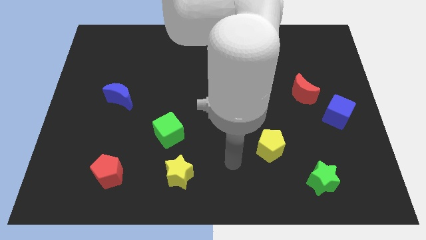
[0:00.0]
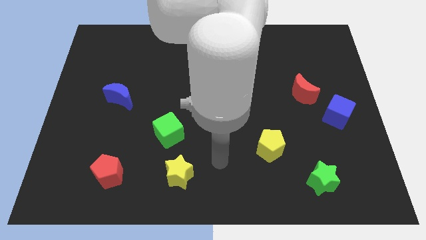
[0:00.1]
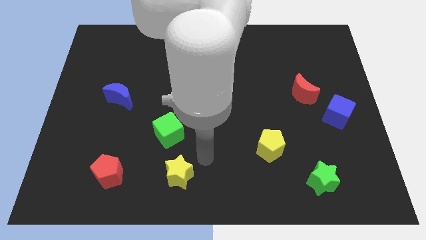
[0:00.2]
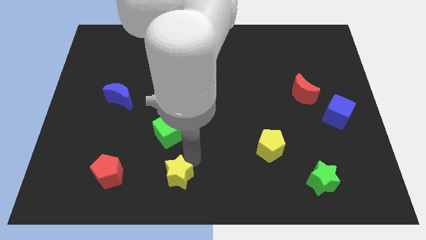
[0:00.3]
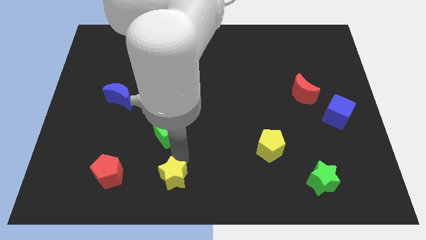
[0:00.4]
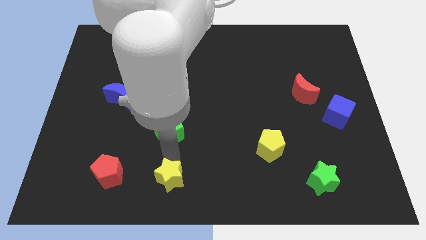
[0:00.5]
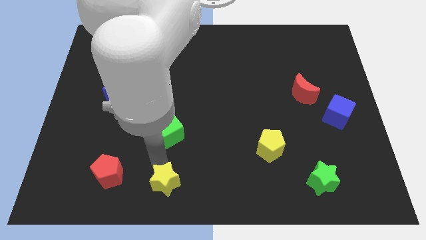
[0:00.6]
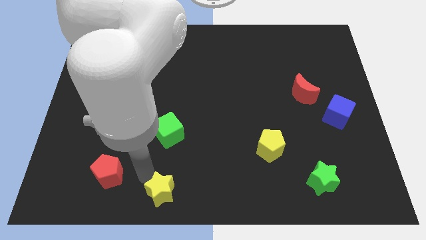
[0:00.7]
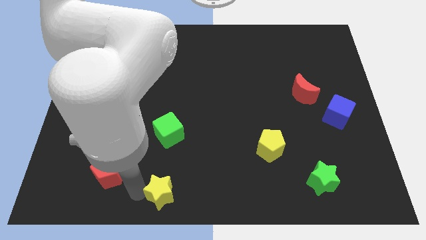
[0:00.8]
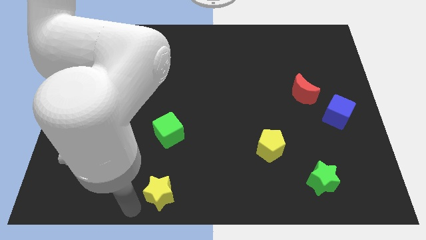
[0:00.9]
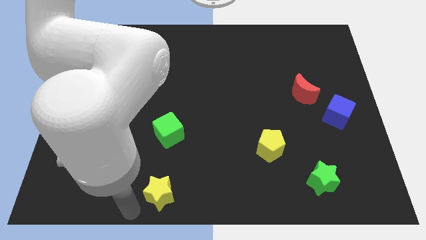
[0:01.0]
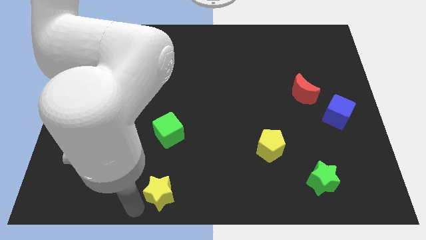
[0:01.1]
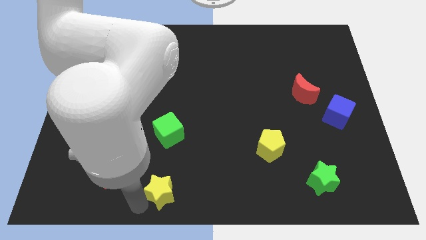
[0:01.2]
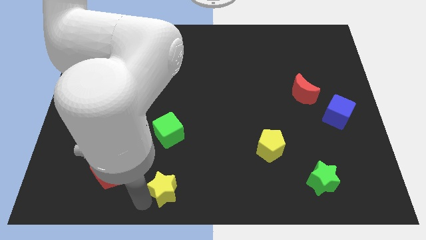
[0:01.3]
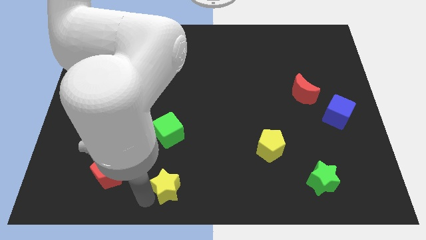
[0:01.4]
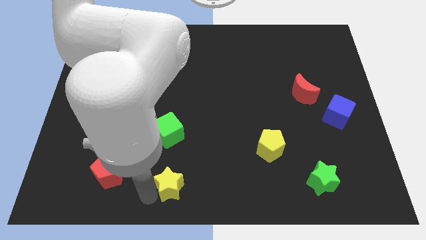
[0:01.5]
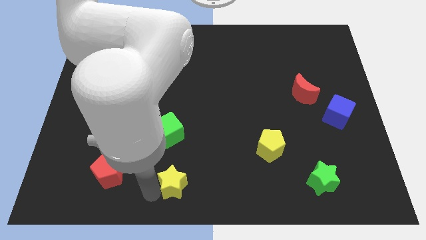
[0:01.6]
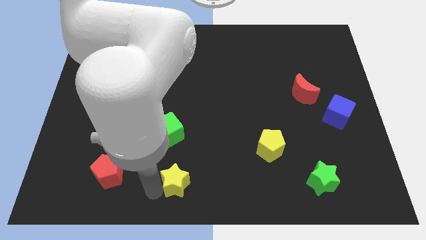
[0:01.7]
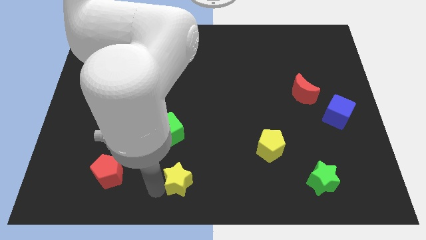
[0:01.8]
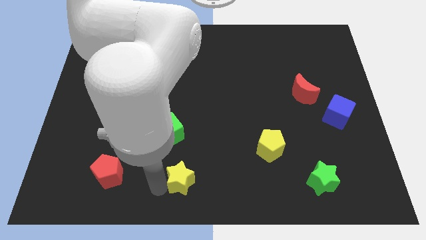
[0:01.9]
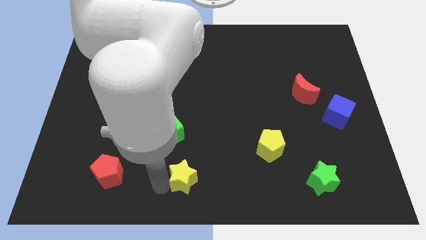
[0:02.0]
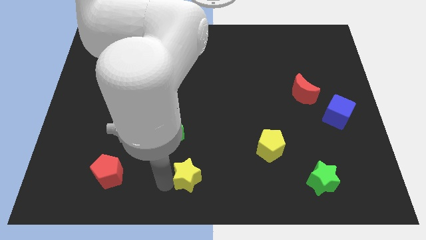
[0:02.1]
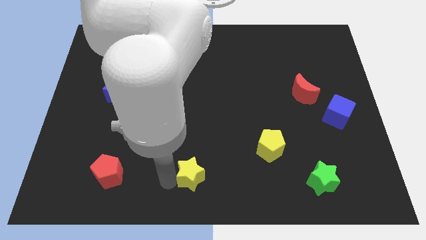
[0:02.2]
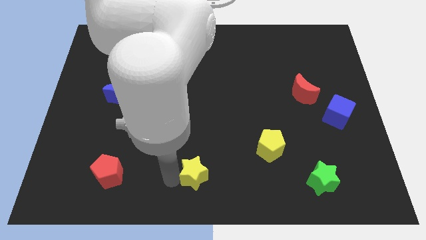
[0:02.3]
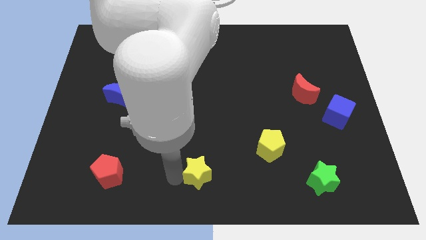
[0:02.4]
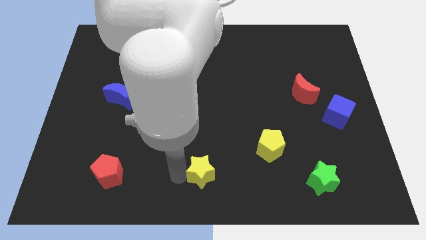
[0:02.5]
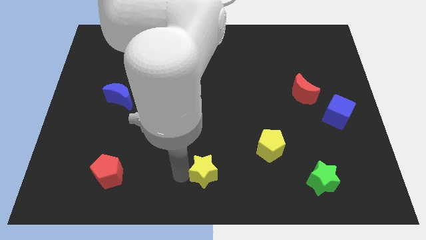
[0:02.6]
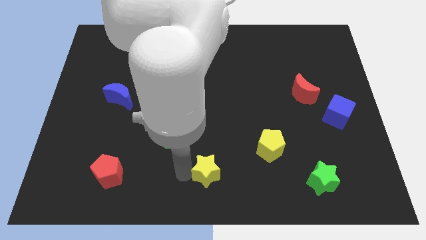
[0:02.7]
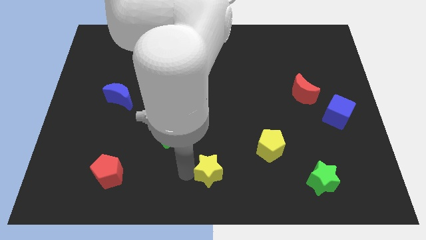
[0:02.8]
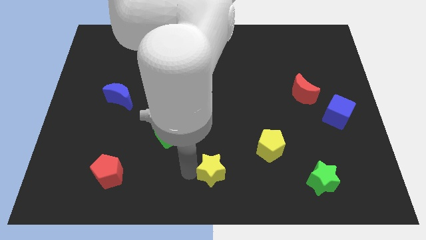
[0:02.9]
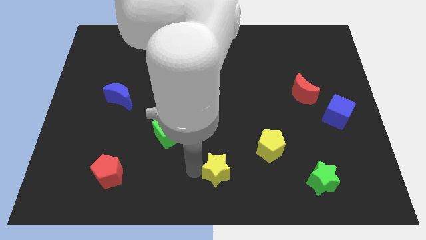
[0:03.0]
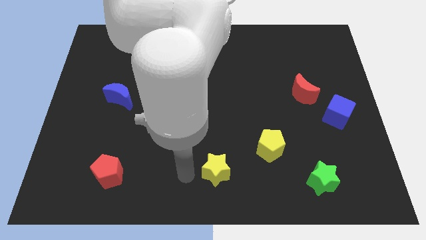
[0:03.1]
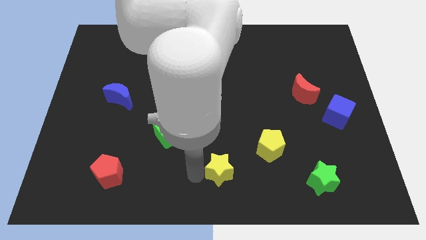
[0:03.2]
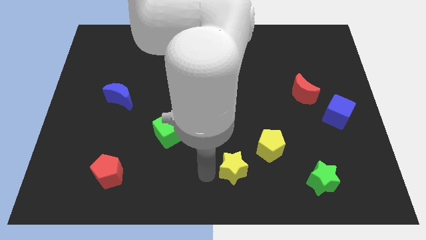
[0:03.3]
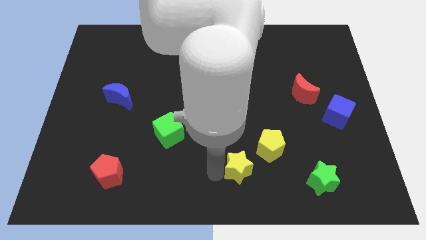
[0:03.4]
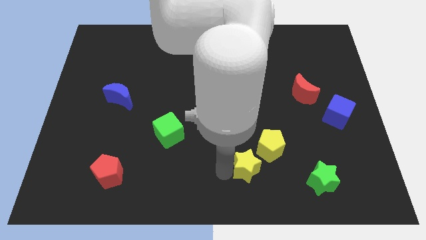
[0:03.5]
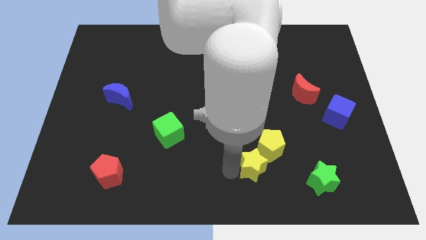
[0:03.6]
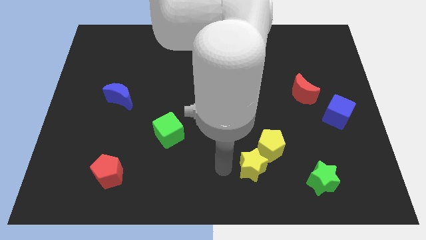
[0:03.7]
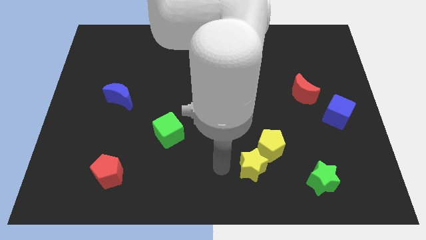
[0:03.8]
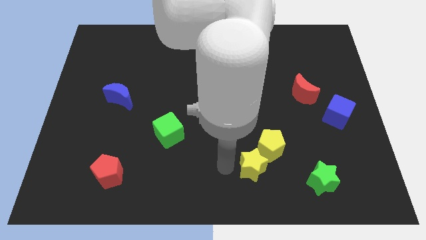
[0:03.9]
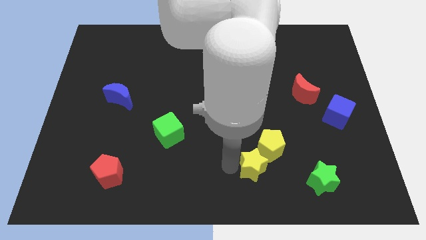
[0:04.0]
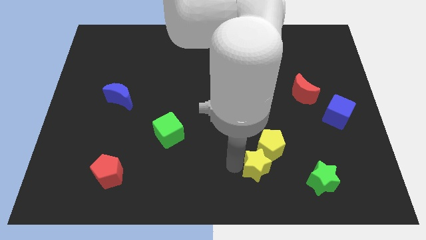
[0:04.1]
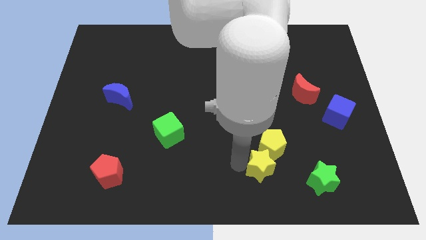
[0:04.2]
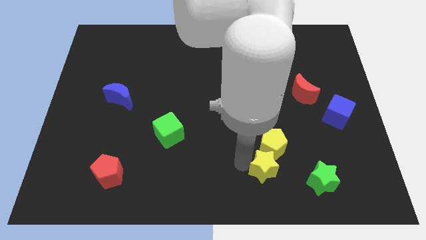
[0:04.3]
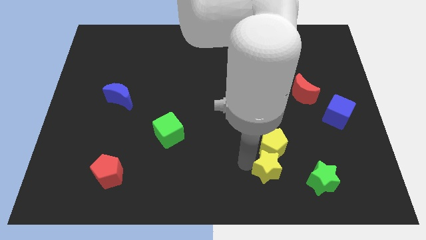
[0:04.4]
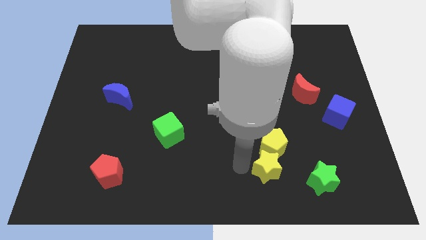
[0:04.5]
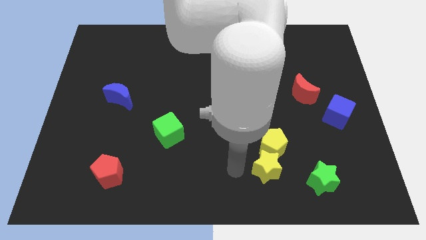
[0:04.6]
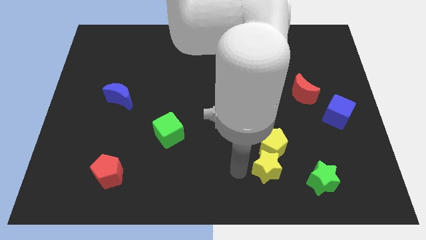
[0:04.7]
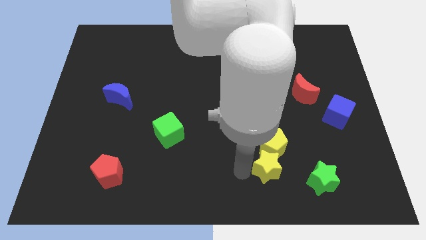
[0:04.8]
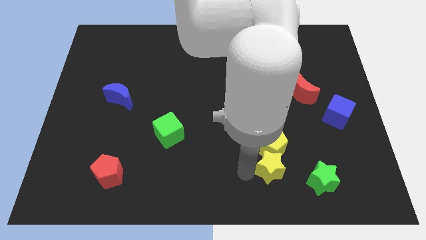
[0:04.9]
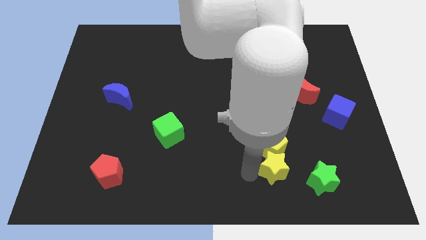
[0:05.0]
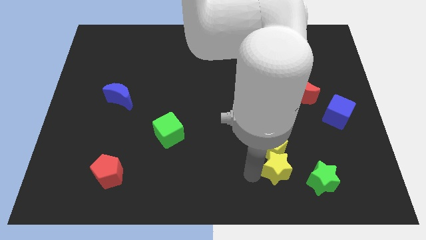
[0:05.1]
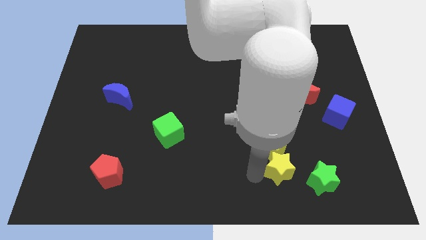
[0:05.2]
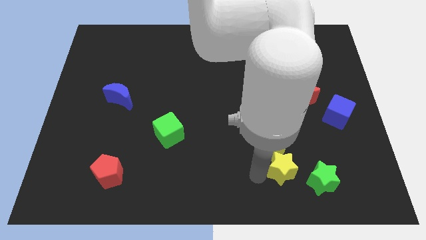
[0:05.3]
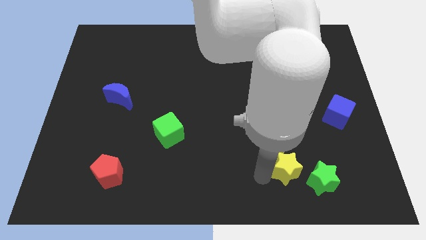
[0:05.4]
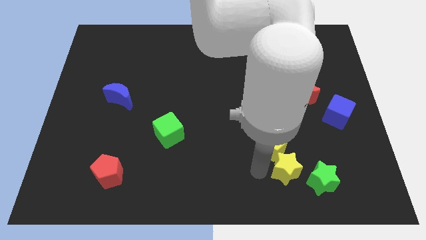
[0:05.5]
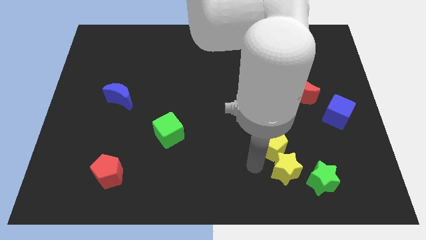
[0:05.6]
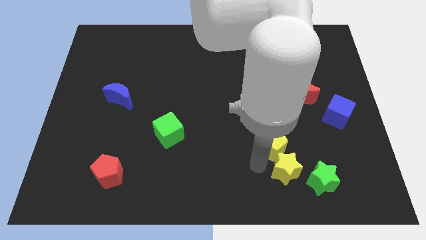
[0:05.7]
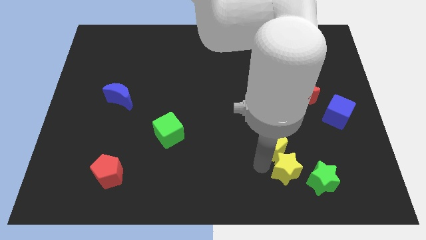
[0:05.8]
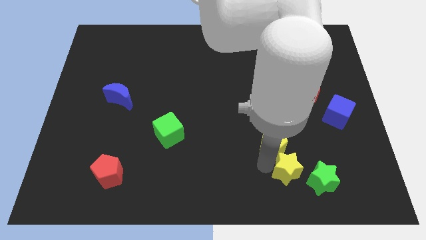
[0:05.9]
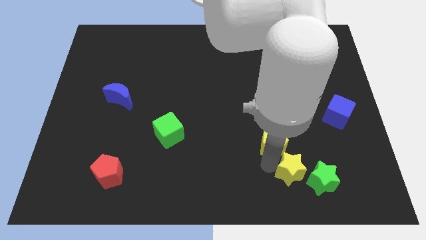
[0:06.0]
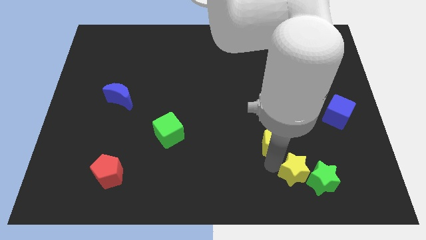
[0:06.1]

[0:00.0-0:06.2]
move the yellow star to the green star
